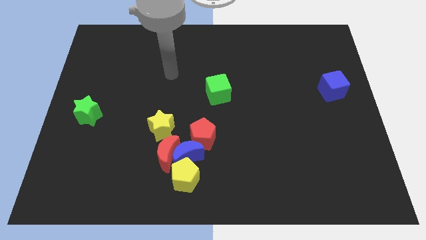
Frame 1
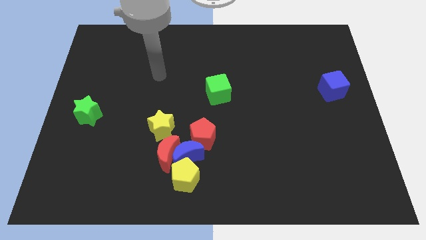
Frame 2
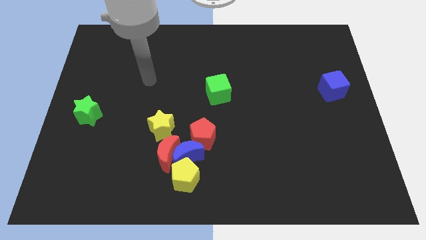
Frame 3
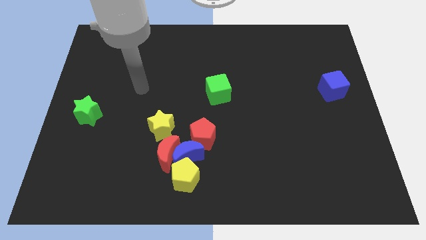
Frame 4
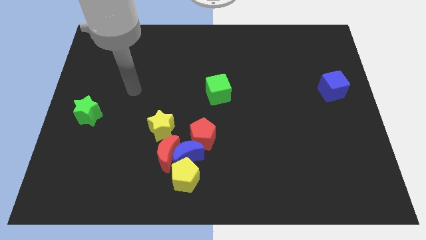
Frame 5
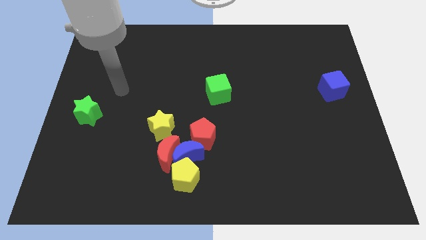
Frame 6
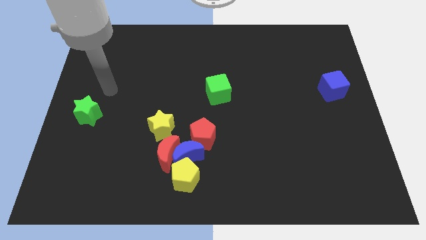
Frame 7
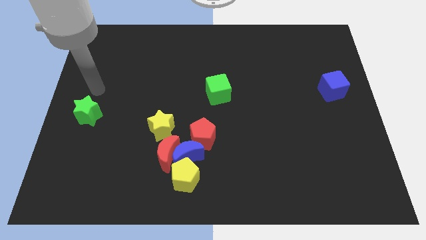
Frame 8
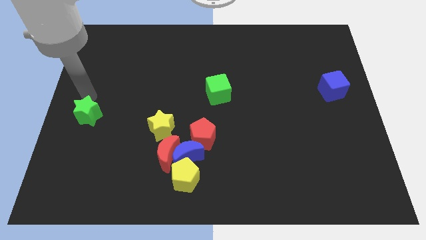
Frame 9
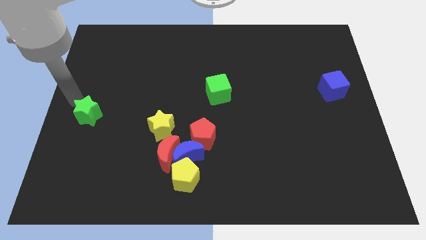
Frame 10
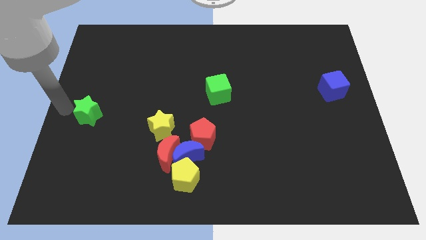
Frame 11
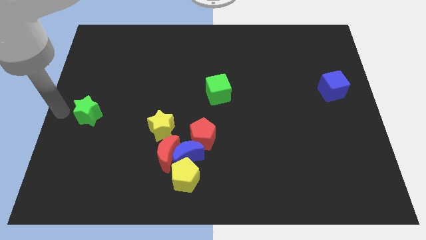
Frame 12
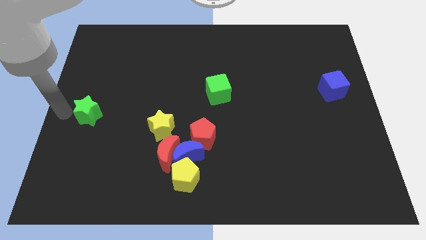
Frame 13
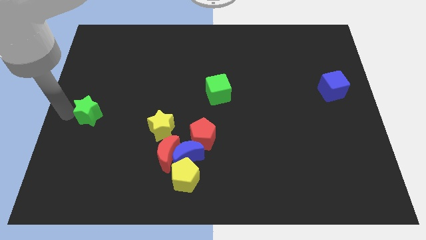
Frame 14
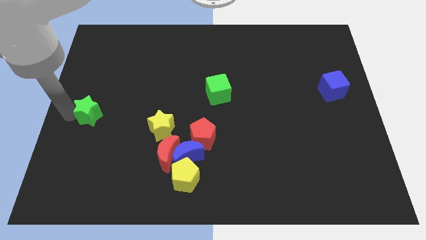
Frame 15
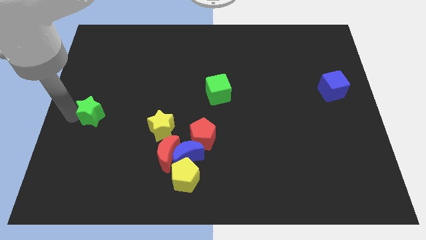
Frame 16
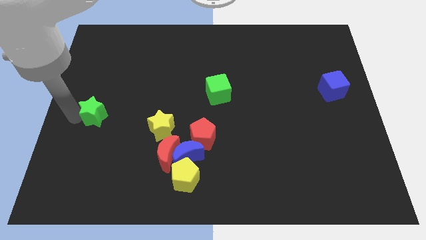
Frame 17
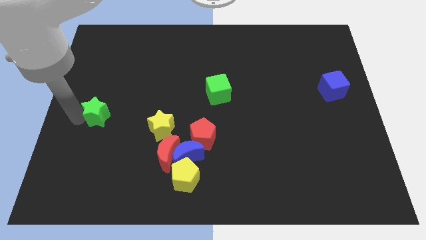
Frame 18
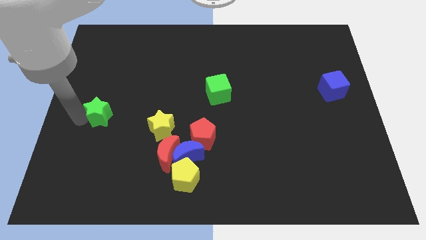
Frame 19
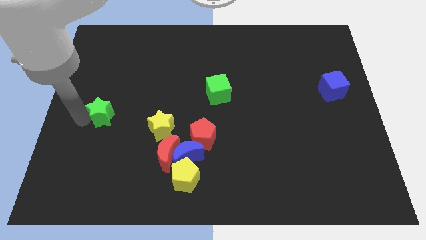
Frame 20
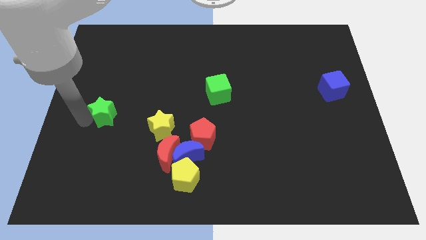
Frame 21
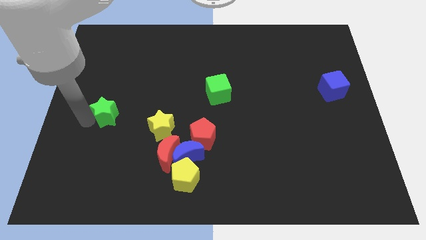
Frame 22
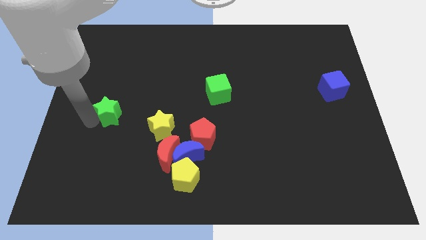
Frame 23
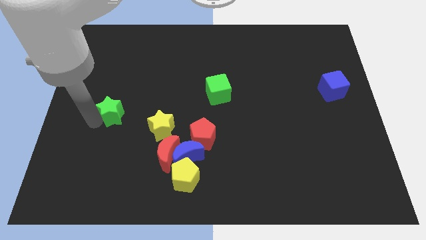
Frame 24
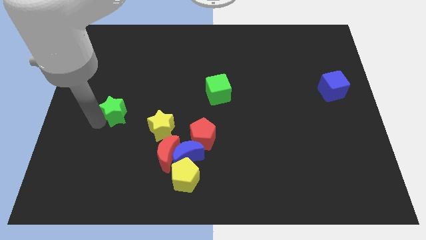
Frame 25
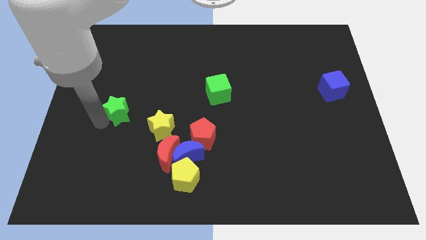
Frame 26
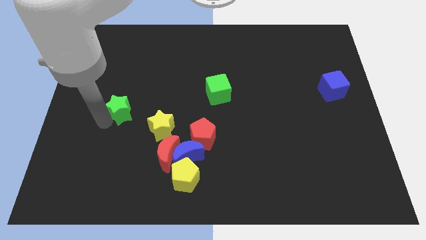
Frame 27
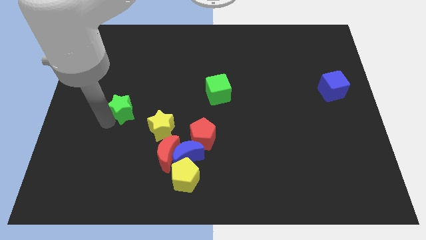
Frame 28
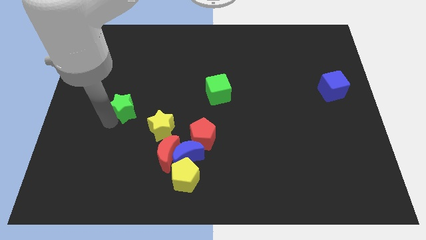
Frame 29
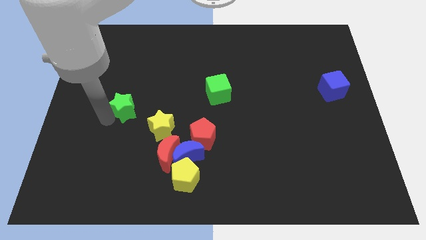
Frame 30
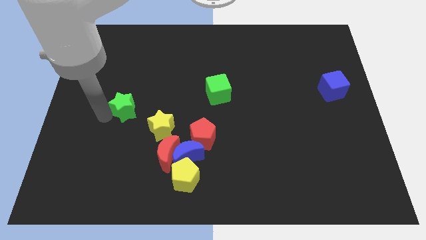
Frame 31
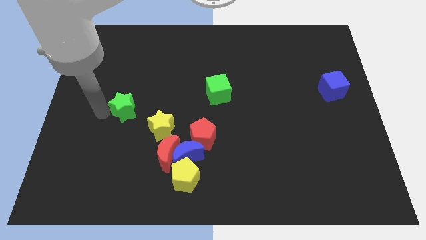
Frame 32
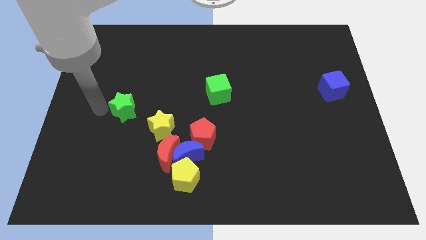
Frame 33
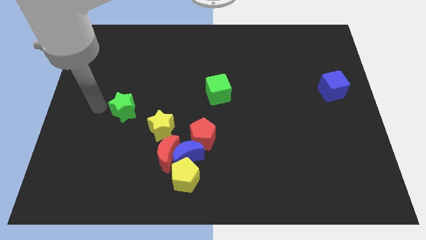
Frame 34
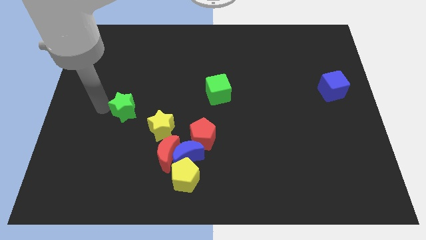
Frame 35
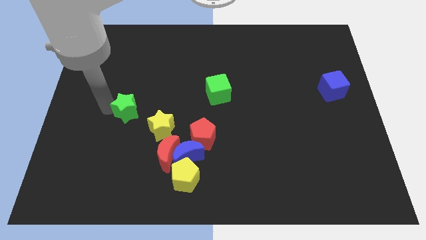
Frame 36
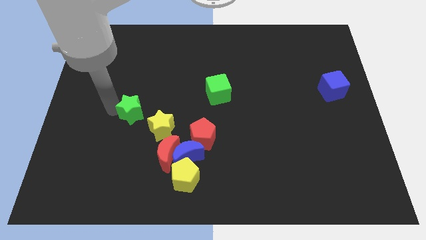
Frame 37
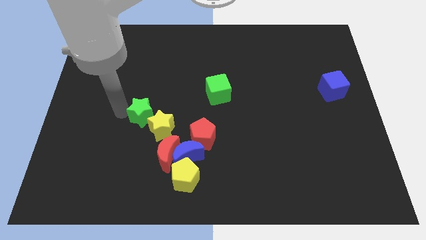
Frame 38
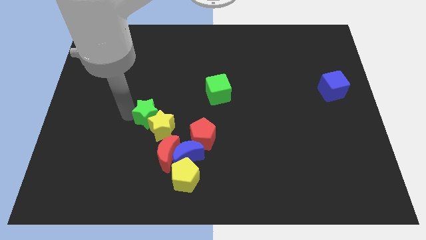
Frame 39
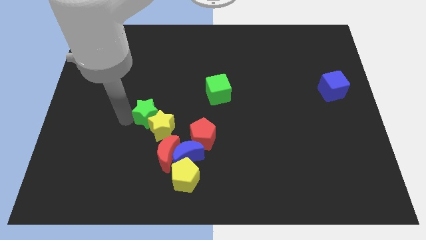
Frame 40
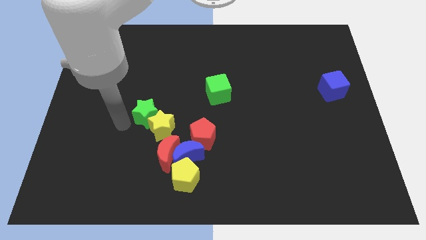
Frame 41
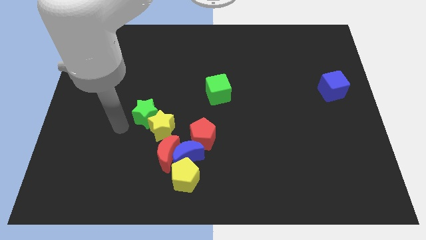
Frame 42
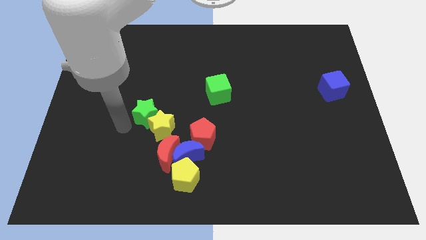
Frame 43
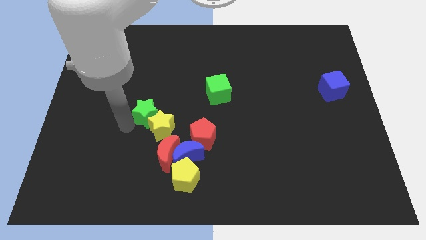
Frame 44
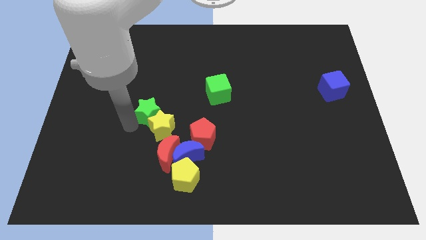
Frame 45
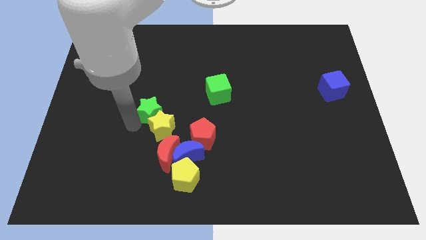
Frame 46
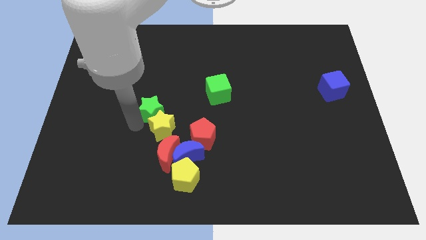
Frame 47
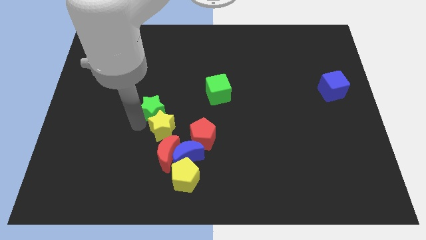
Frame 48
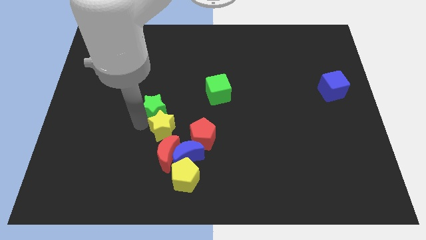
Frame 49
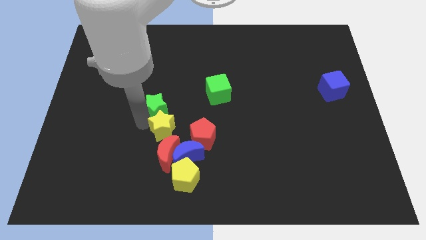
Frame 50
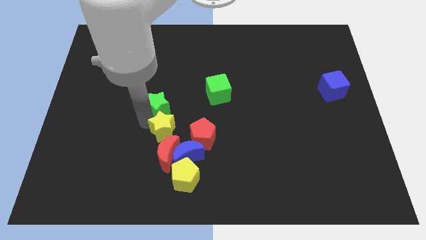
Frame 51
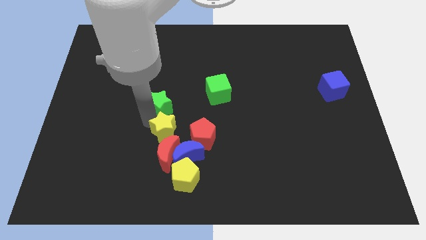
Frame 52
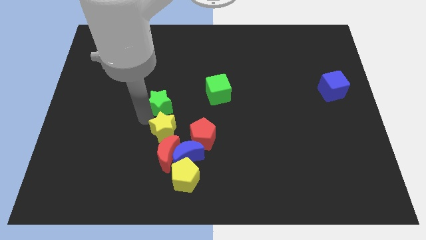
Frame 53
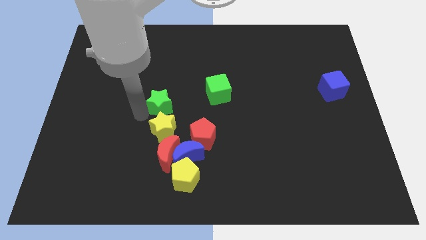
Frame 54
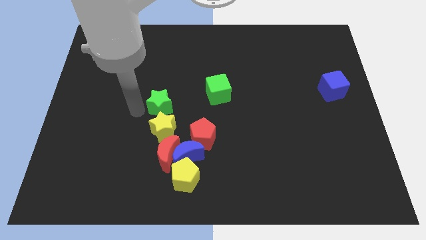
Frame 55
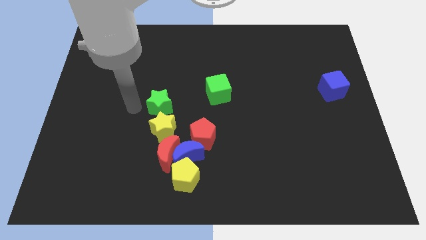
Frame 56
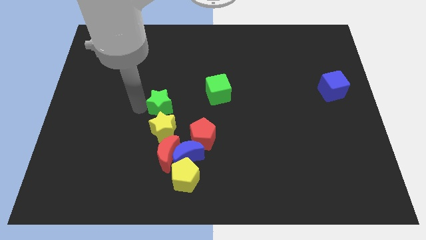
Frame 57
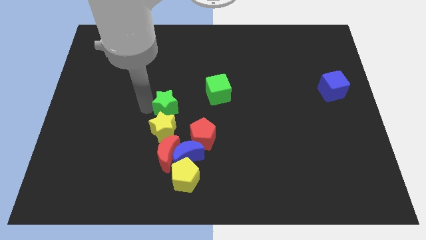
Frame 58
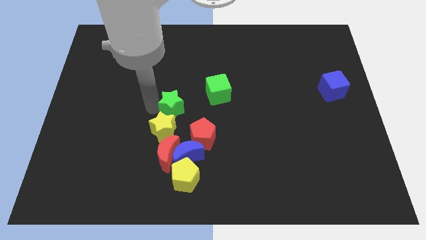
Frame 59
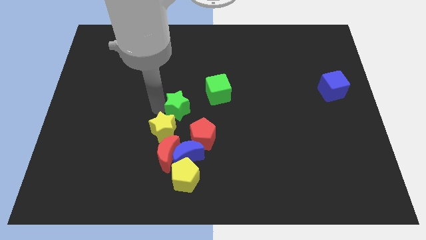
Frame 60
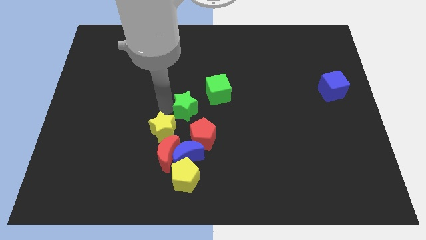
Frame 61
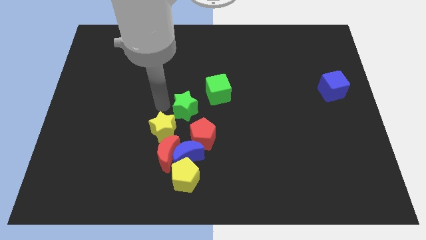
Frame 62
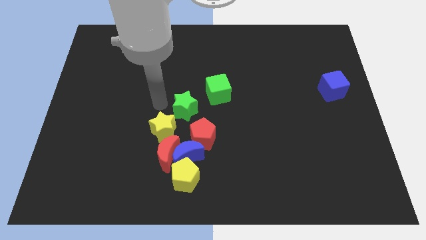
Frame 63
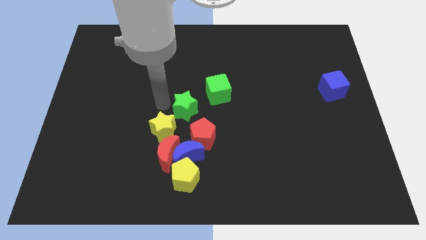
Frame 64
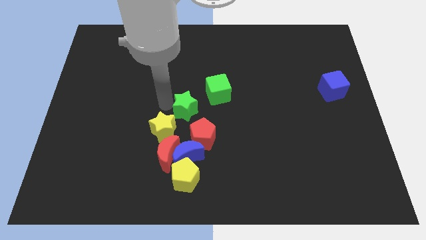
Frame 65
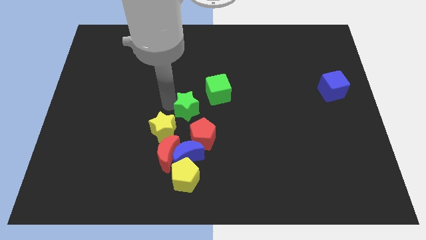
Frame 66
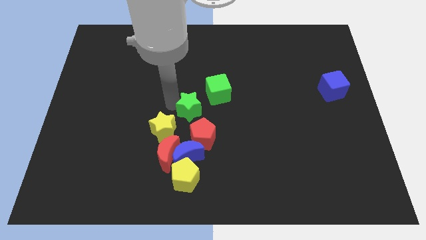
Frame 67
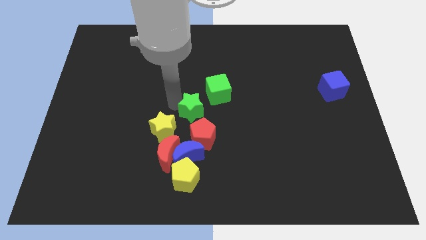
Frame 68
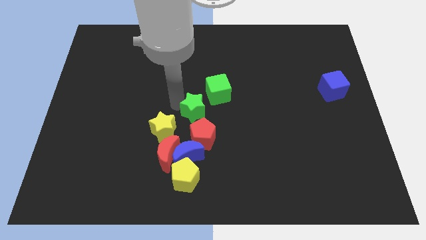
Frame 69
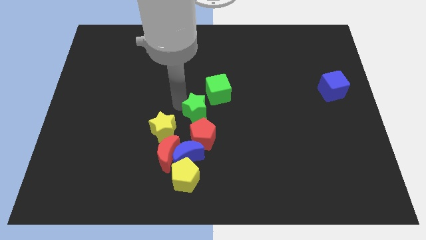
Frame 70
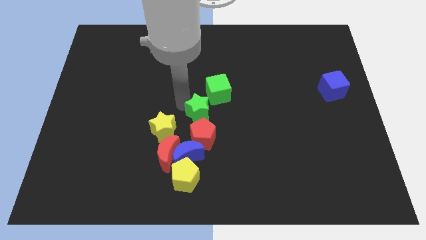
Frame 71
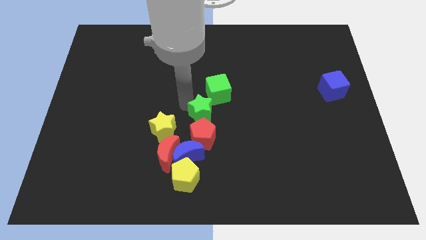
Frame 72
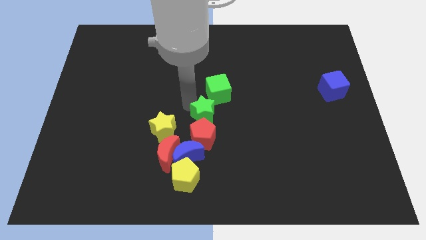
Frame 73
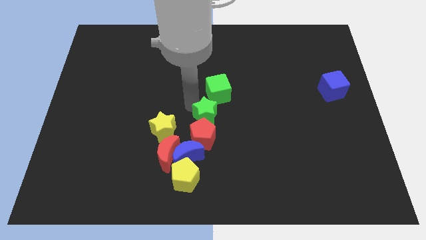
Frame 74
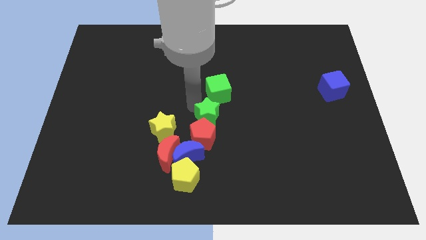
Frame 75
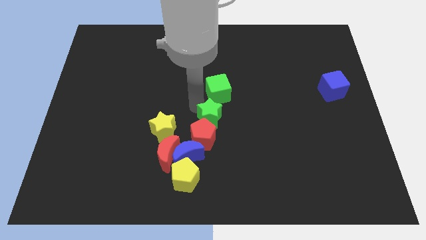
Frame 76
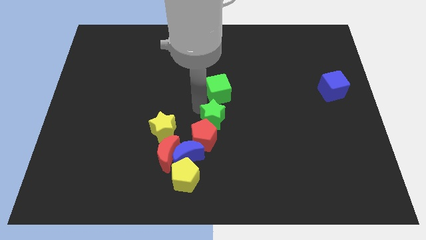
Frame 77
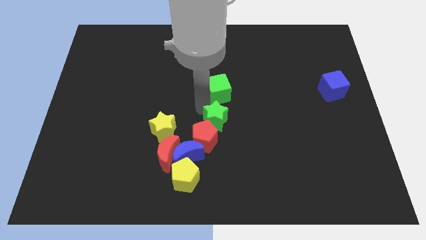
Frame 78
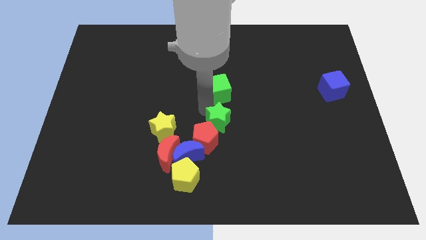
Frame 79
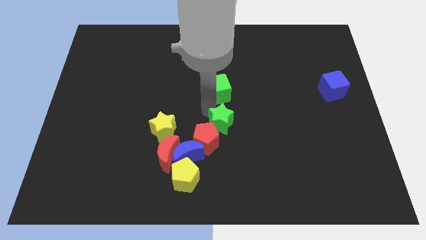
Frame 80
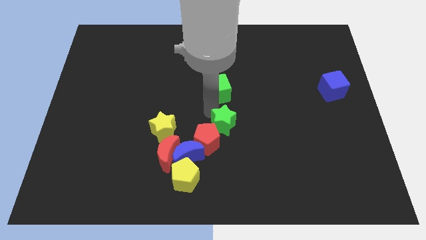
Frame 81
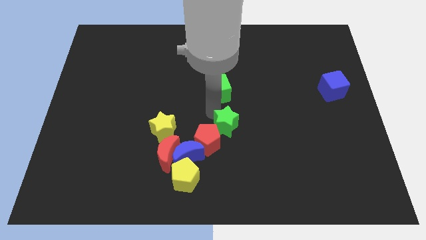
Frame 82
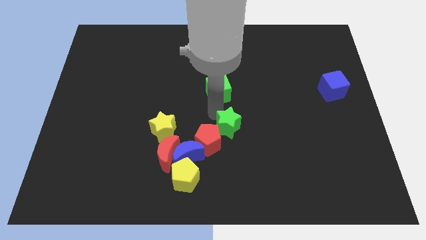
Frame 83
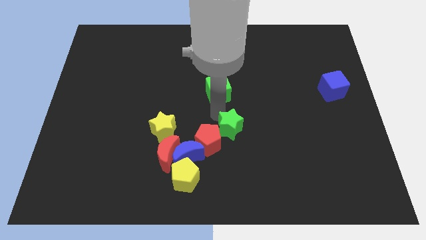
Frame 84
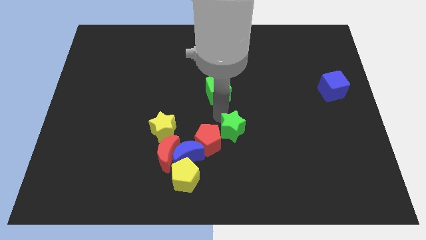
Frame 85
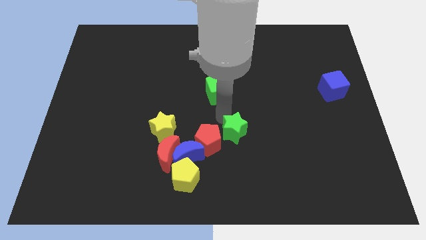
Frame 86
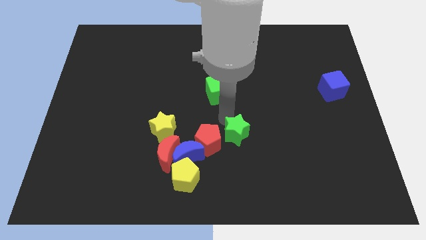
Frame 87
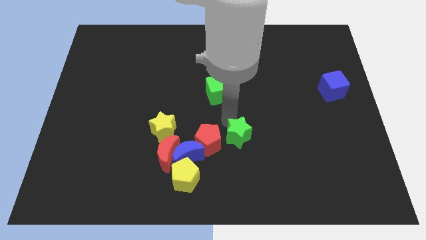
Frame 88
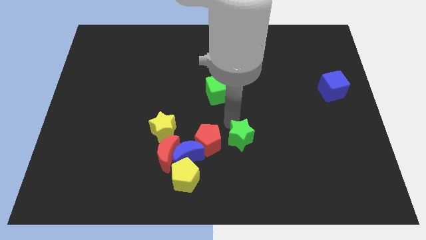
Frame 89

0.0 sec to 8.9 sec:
push the green star right of the blue moon
